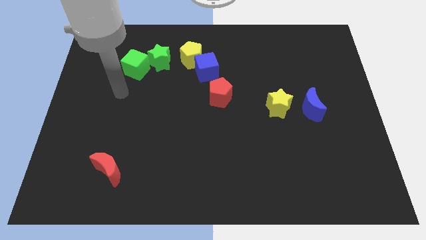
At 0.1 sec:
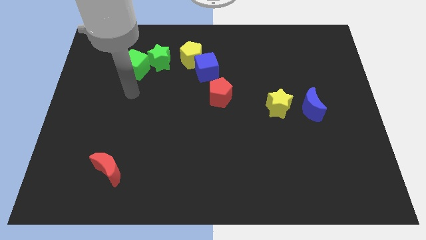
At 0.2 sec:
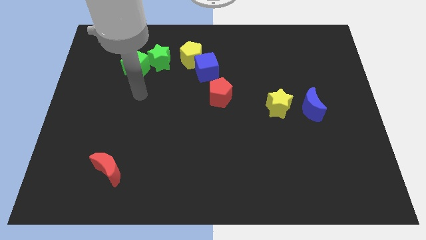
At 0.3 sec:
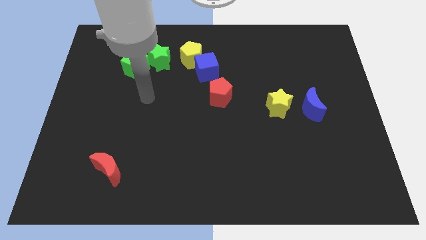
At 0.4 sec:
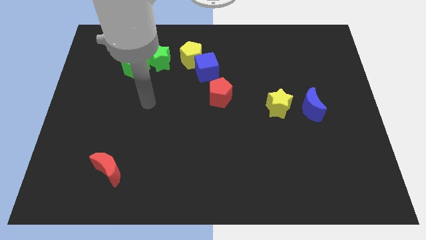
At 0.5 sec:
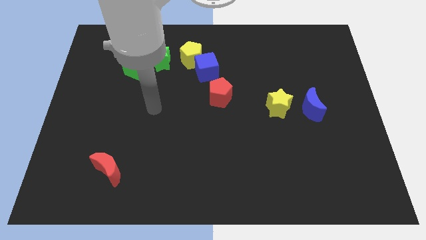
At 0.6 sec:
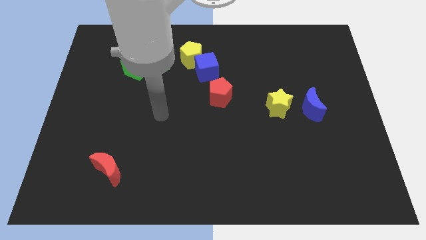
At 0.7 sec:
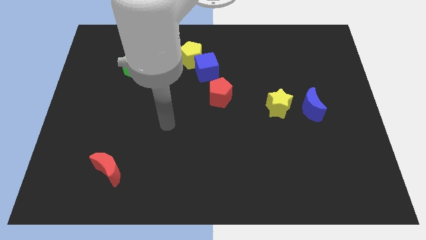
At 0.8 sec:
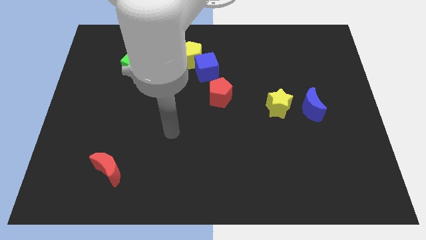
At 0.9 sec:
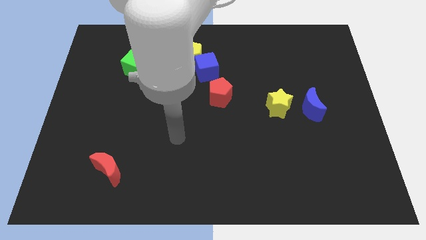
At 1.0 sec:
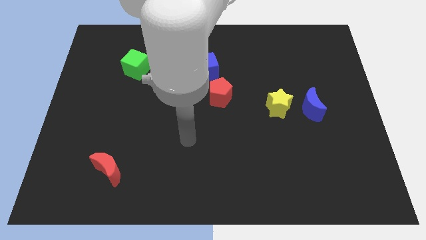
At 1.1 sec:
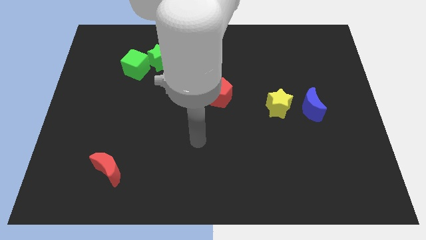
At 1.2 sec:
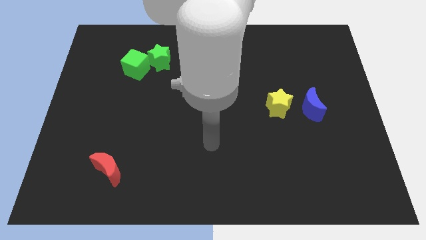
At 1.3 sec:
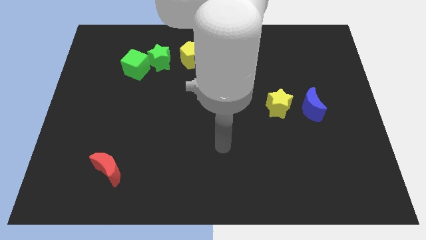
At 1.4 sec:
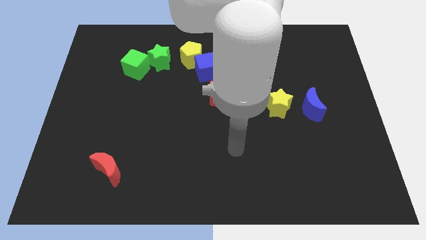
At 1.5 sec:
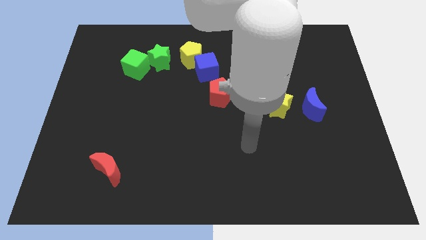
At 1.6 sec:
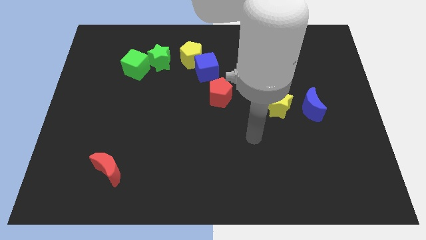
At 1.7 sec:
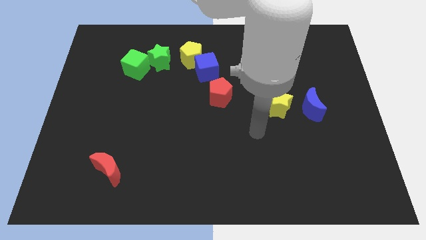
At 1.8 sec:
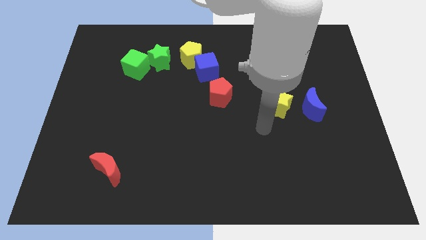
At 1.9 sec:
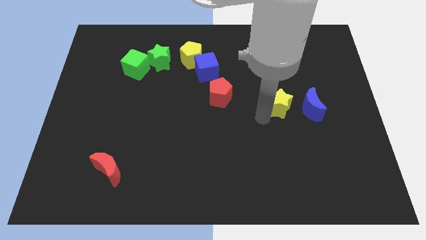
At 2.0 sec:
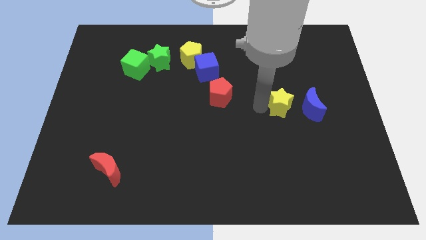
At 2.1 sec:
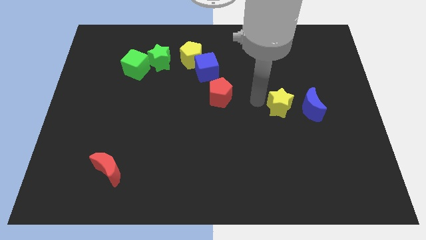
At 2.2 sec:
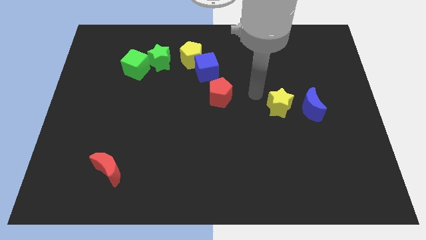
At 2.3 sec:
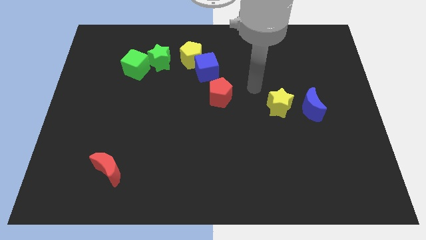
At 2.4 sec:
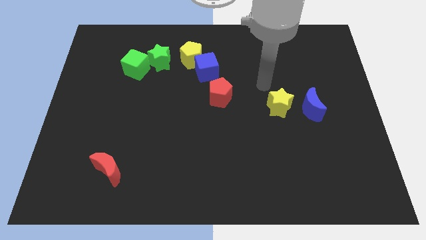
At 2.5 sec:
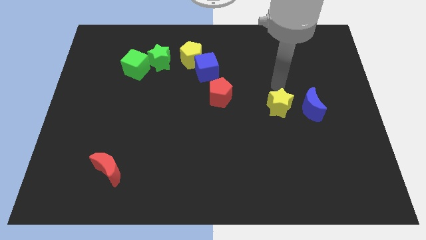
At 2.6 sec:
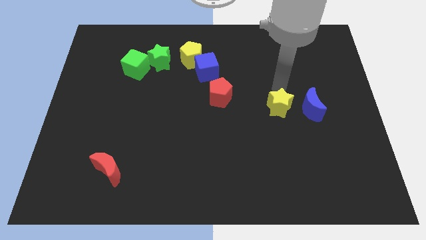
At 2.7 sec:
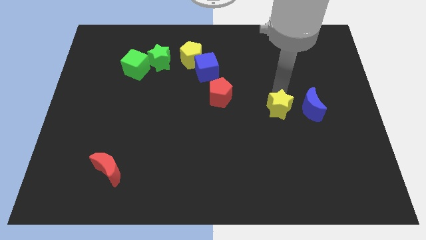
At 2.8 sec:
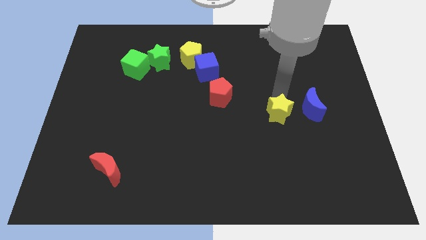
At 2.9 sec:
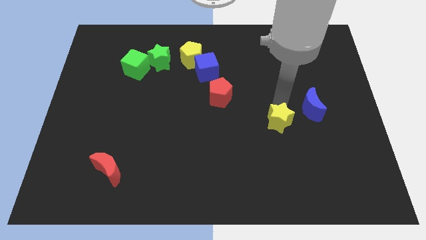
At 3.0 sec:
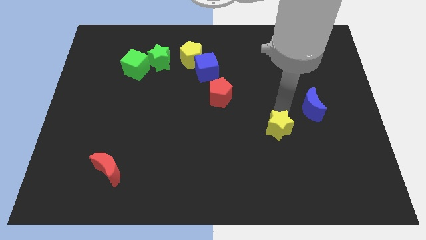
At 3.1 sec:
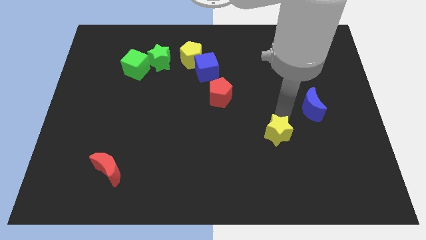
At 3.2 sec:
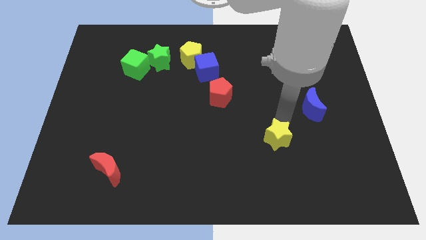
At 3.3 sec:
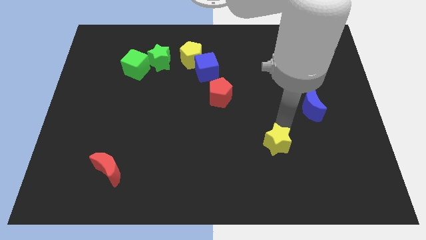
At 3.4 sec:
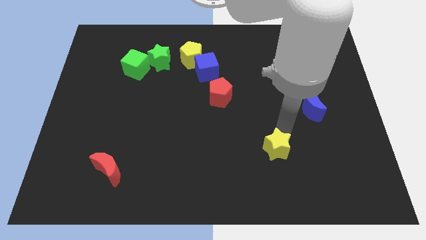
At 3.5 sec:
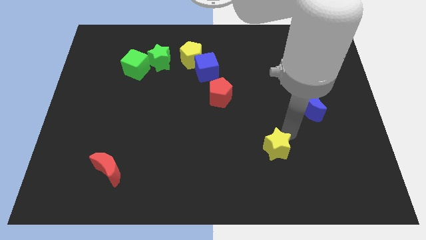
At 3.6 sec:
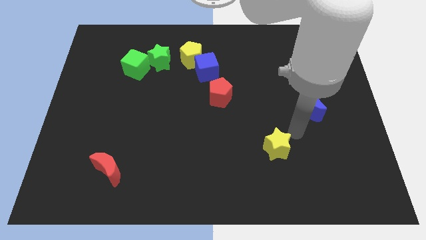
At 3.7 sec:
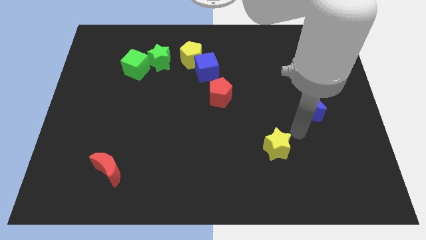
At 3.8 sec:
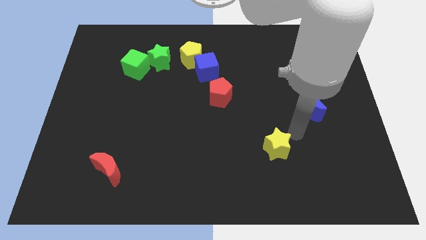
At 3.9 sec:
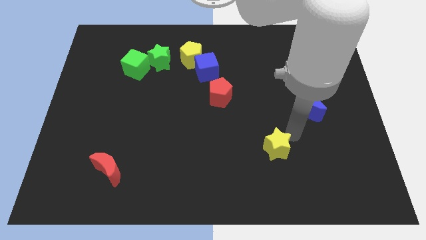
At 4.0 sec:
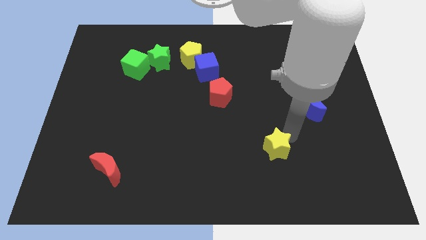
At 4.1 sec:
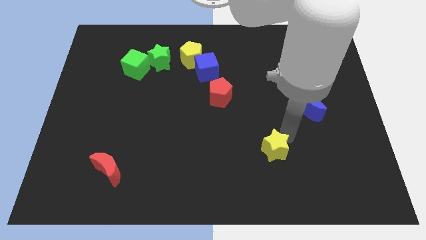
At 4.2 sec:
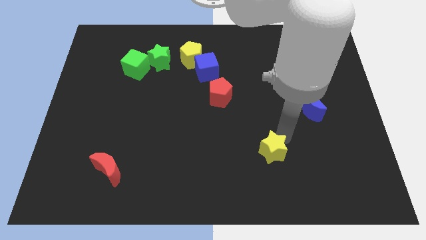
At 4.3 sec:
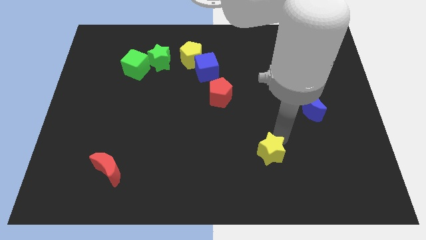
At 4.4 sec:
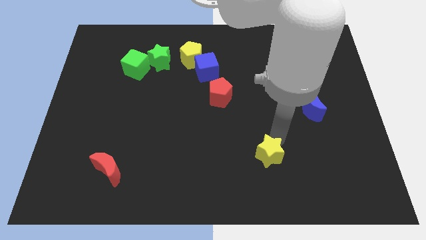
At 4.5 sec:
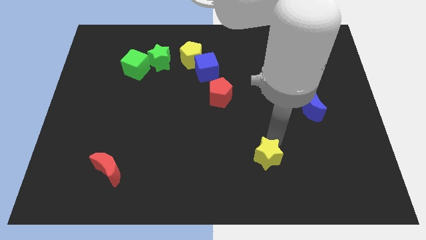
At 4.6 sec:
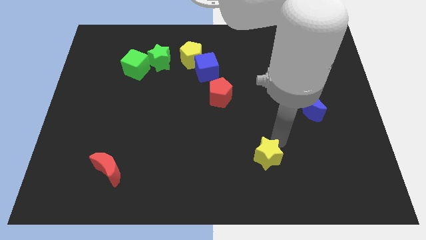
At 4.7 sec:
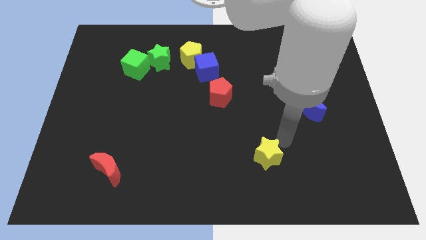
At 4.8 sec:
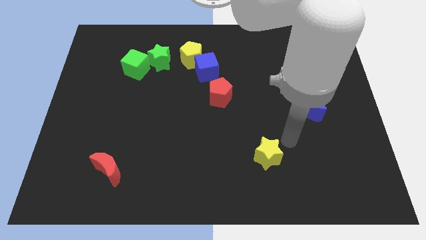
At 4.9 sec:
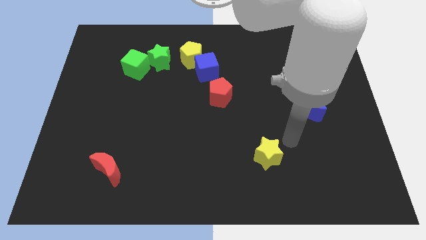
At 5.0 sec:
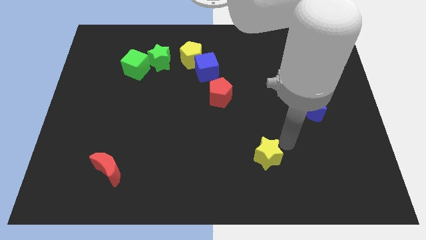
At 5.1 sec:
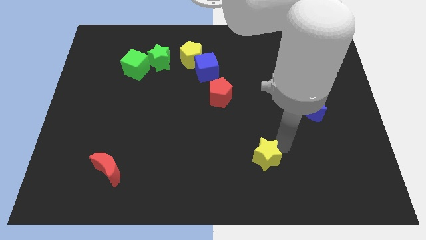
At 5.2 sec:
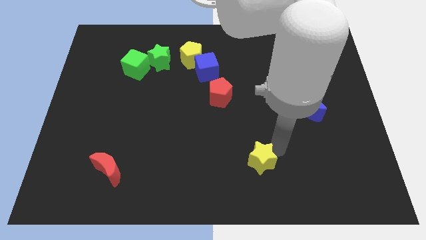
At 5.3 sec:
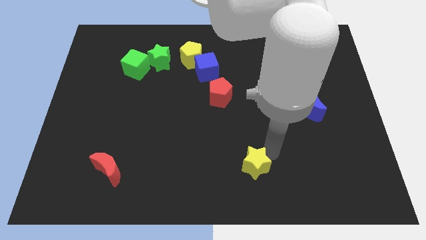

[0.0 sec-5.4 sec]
slide the yellow star to the bottom side

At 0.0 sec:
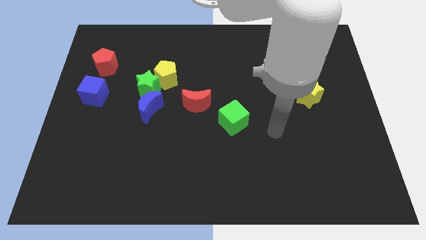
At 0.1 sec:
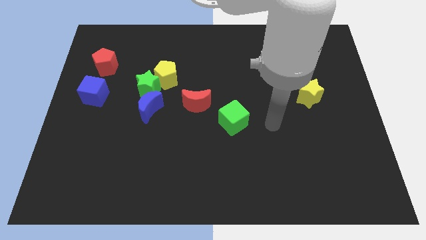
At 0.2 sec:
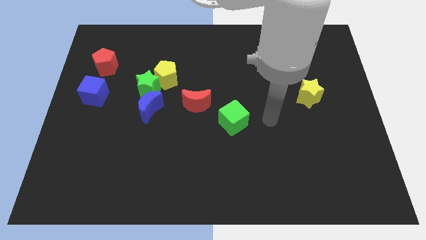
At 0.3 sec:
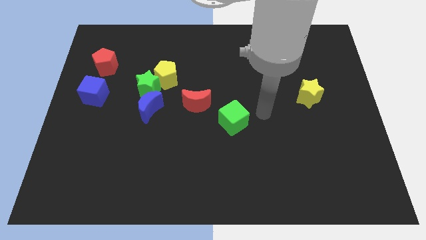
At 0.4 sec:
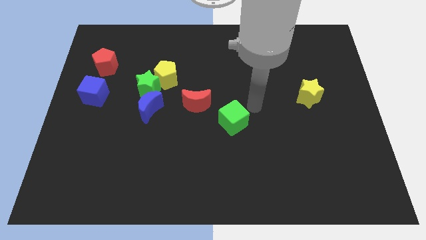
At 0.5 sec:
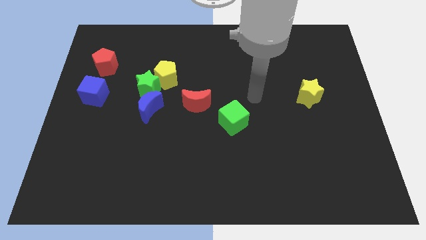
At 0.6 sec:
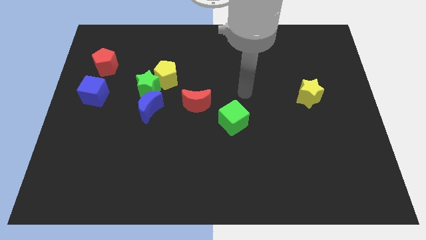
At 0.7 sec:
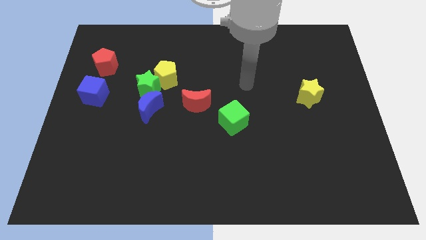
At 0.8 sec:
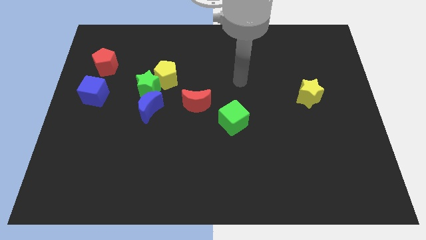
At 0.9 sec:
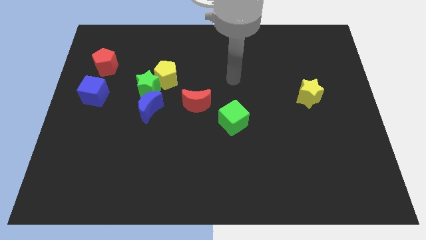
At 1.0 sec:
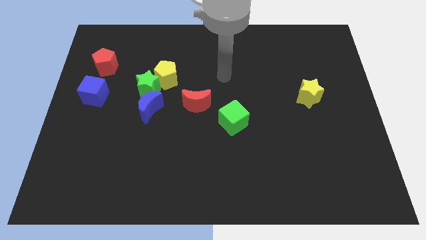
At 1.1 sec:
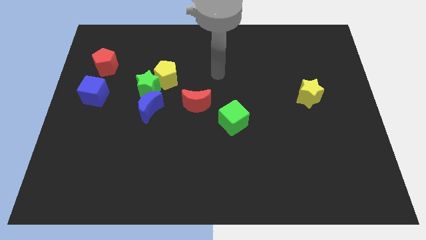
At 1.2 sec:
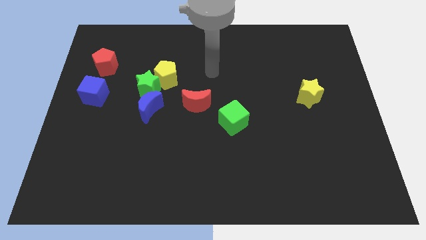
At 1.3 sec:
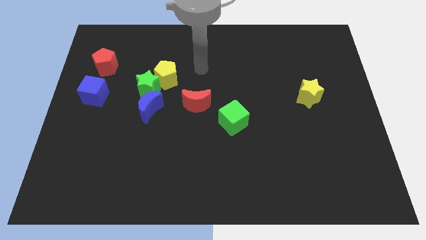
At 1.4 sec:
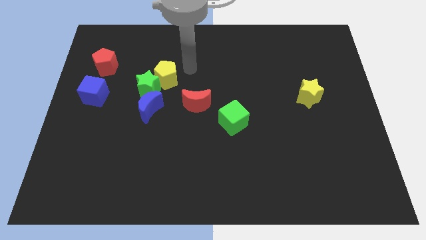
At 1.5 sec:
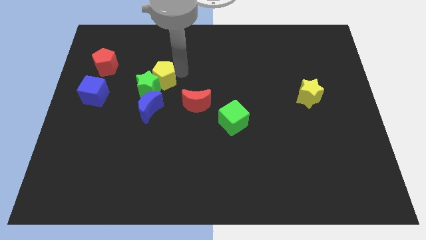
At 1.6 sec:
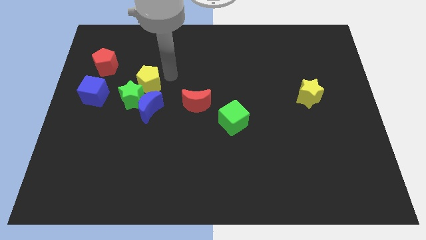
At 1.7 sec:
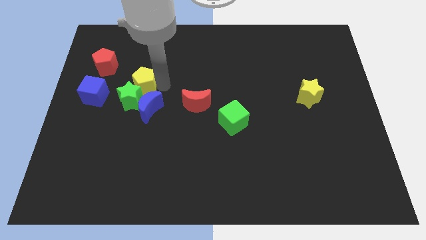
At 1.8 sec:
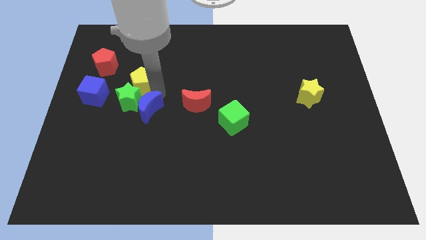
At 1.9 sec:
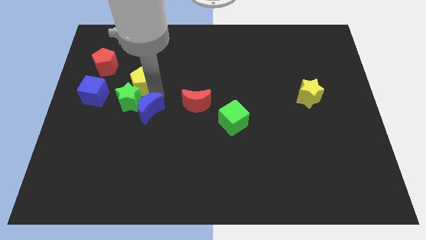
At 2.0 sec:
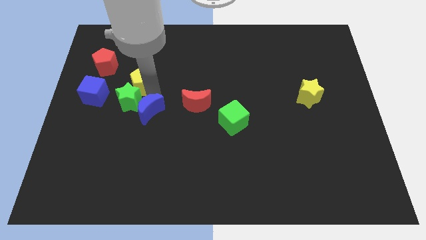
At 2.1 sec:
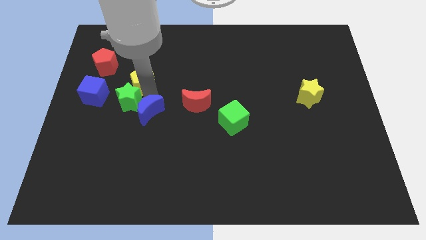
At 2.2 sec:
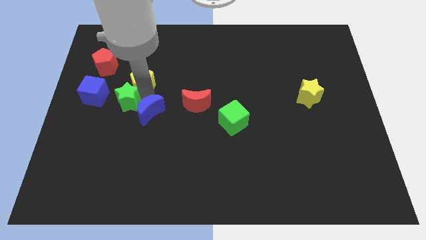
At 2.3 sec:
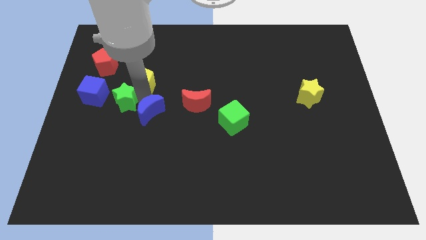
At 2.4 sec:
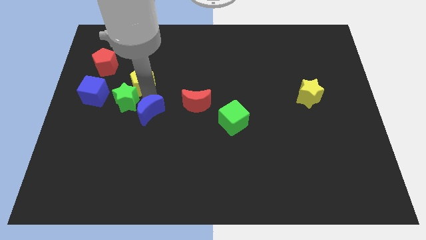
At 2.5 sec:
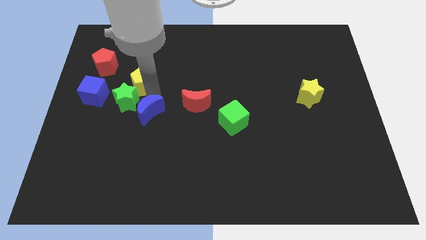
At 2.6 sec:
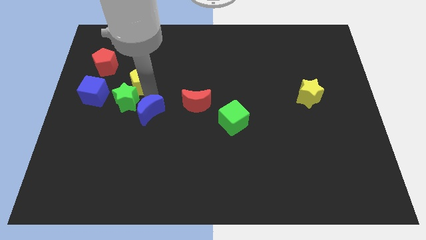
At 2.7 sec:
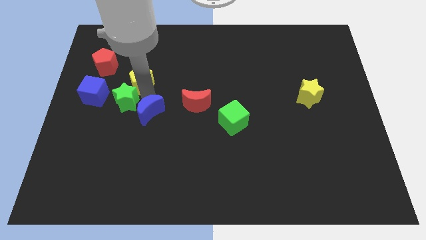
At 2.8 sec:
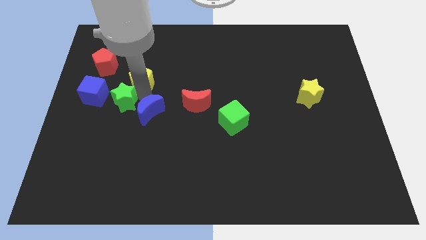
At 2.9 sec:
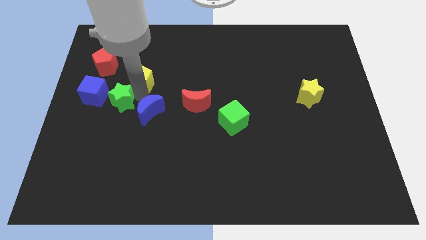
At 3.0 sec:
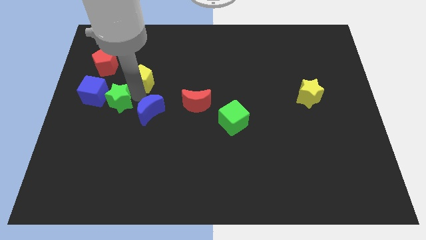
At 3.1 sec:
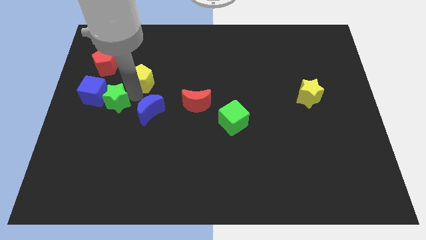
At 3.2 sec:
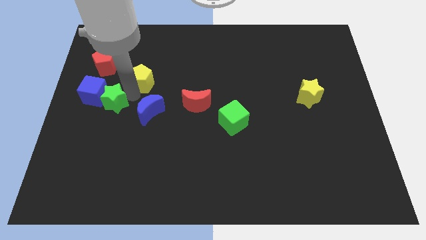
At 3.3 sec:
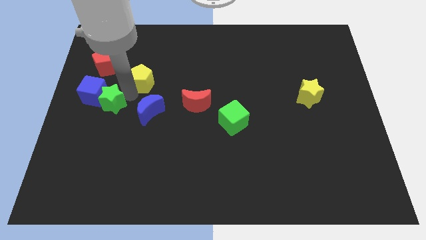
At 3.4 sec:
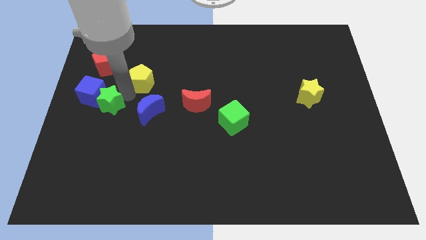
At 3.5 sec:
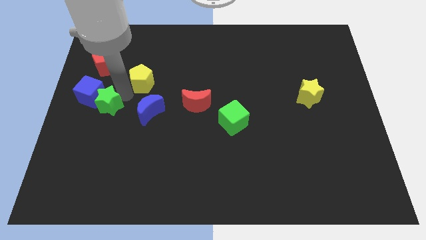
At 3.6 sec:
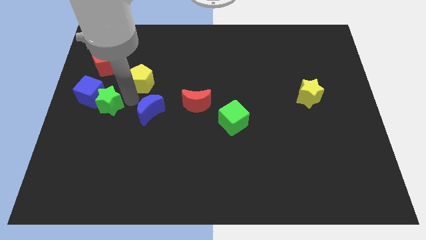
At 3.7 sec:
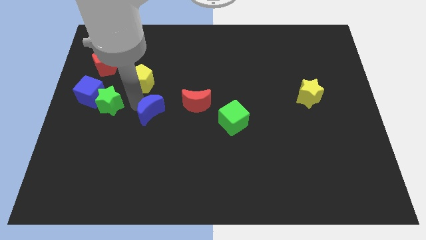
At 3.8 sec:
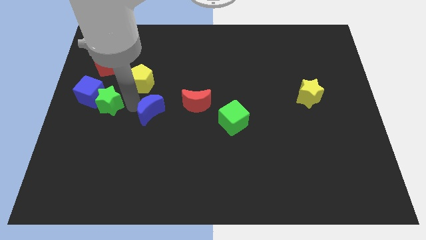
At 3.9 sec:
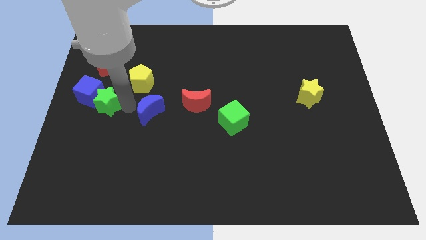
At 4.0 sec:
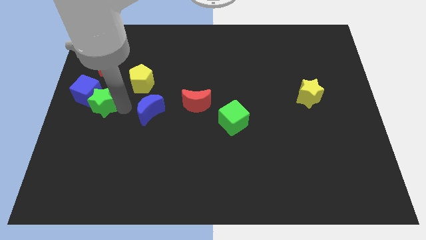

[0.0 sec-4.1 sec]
slide the green star to the left side
